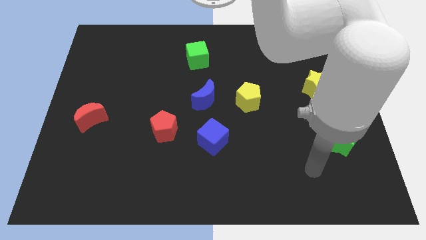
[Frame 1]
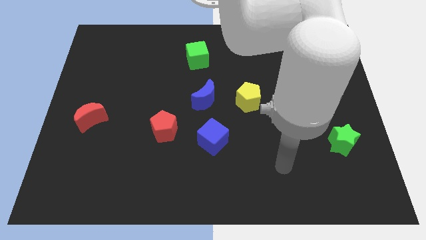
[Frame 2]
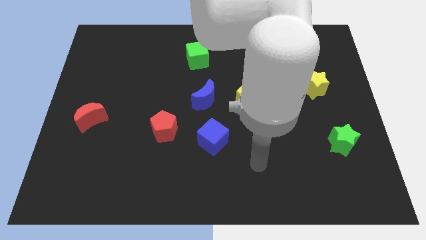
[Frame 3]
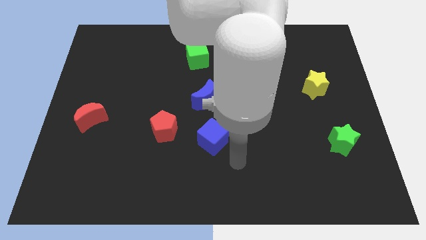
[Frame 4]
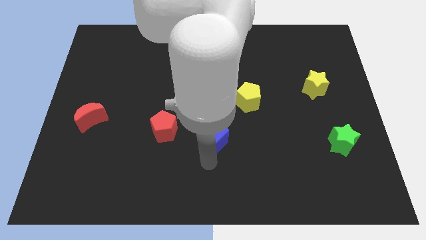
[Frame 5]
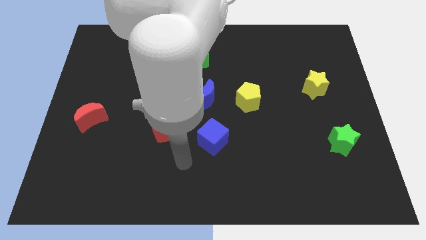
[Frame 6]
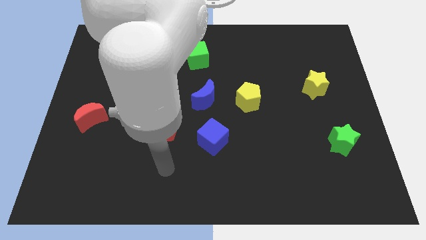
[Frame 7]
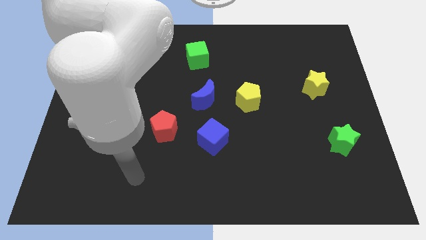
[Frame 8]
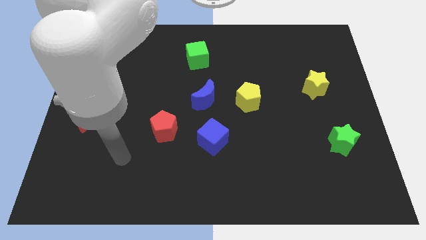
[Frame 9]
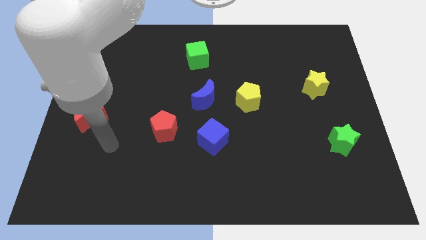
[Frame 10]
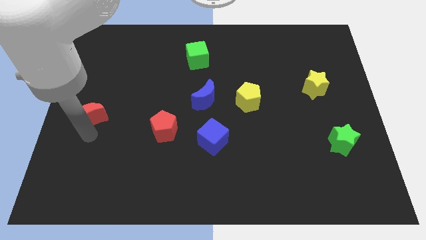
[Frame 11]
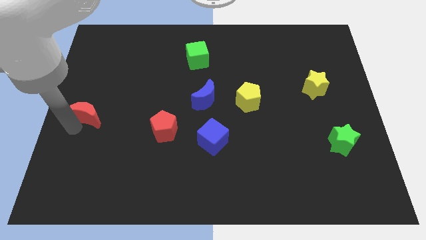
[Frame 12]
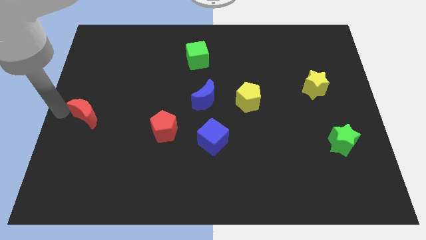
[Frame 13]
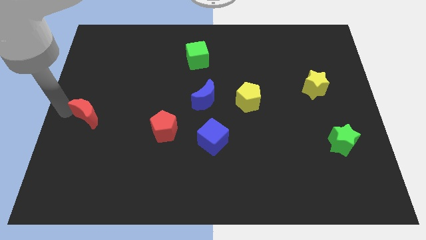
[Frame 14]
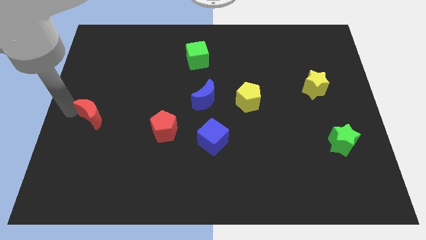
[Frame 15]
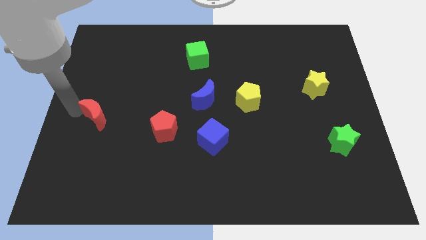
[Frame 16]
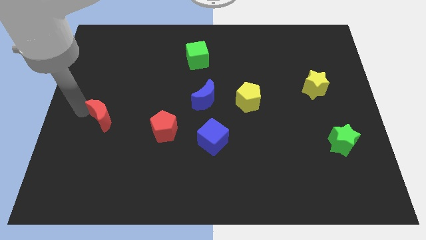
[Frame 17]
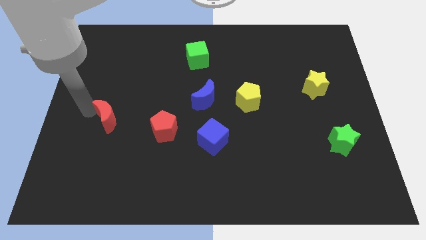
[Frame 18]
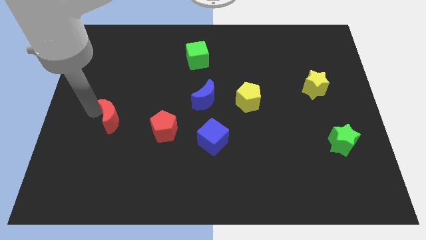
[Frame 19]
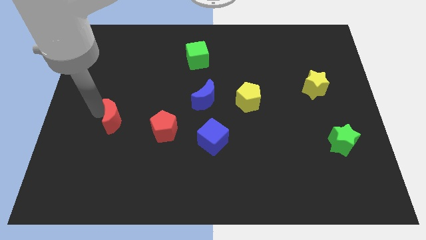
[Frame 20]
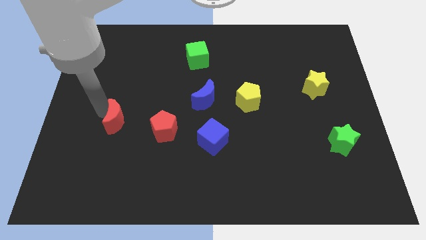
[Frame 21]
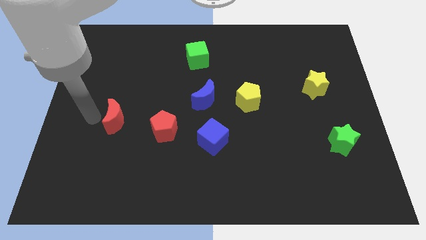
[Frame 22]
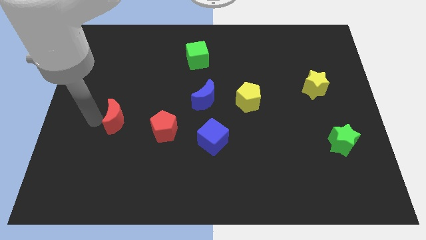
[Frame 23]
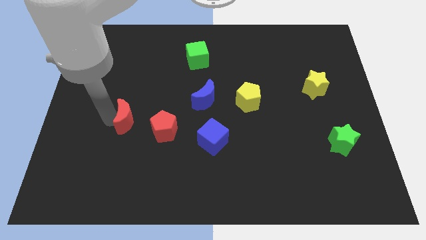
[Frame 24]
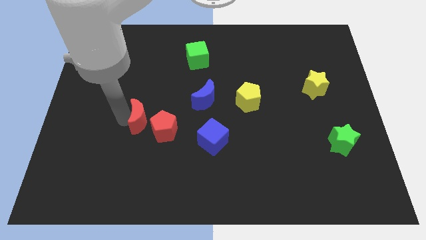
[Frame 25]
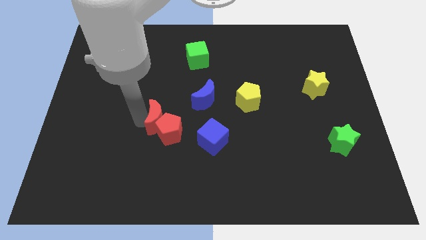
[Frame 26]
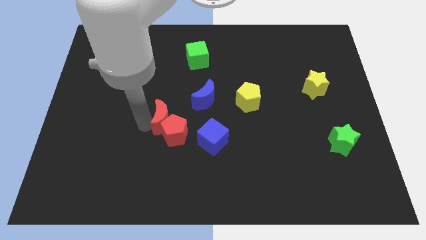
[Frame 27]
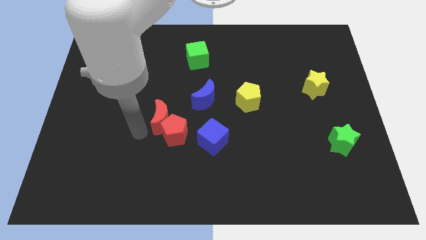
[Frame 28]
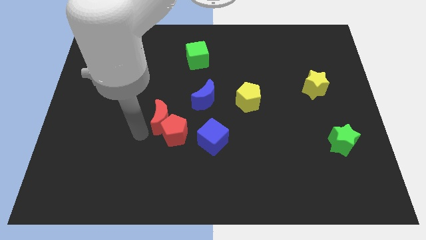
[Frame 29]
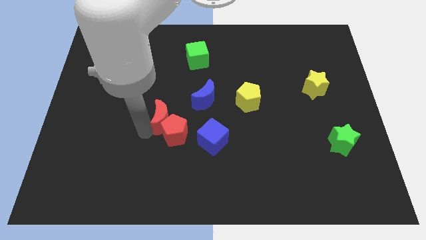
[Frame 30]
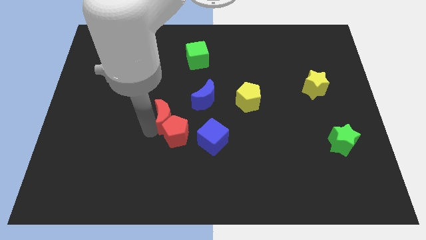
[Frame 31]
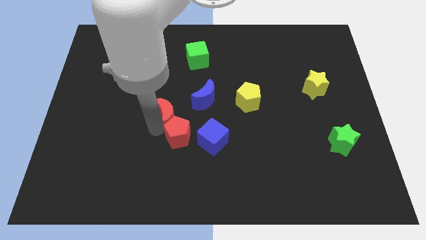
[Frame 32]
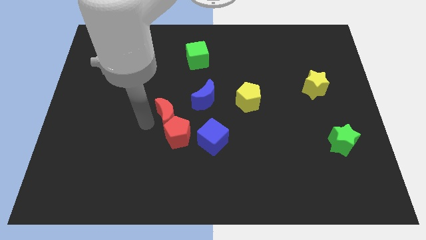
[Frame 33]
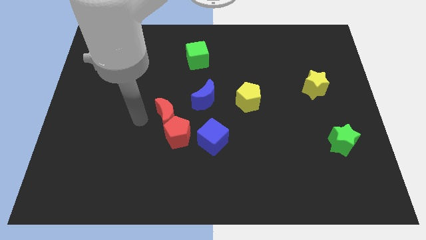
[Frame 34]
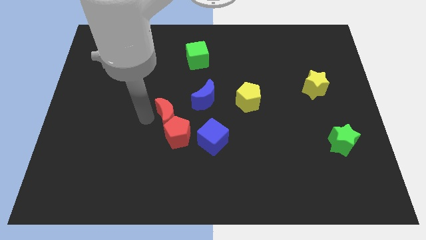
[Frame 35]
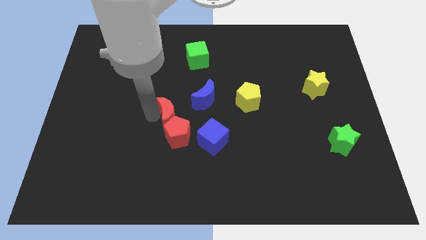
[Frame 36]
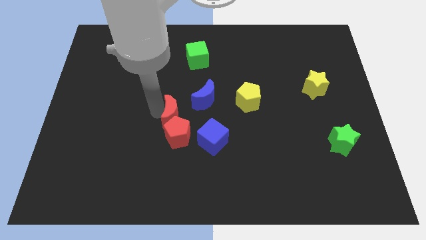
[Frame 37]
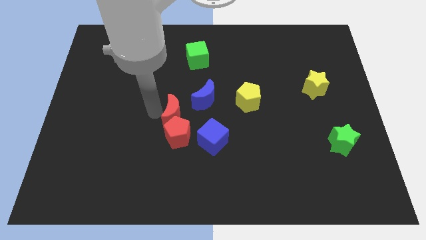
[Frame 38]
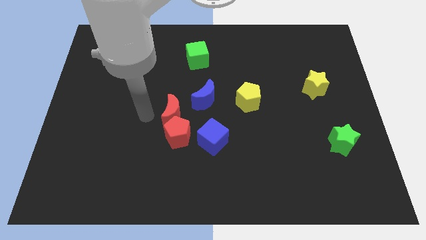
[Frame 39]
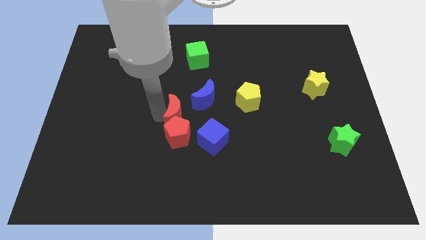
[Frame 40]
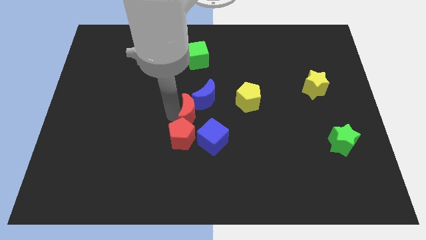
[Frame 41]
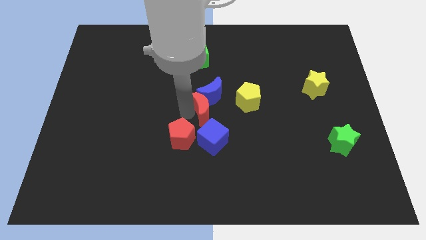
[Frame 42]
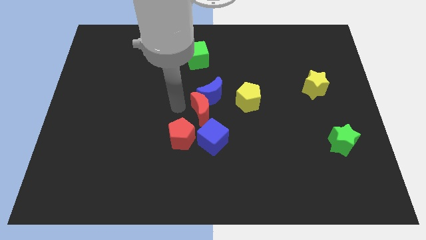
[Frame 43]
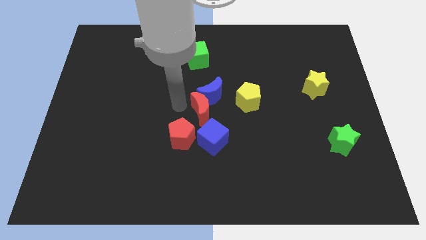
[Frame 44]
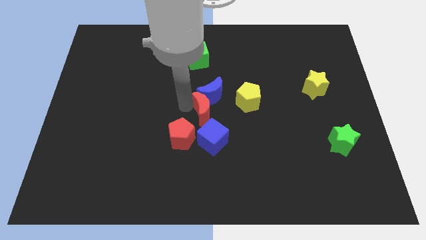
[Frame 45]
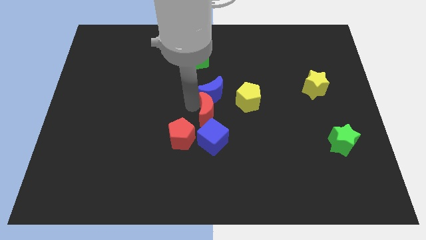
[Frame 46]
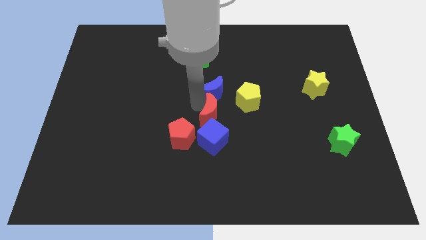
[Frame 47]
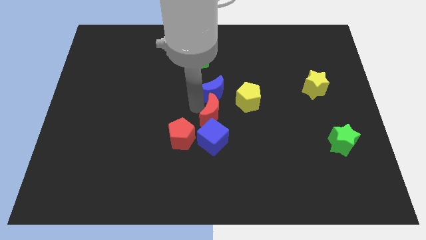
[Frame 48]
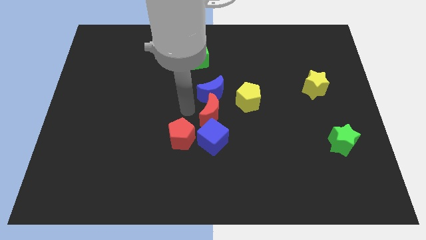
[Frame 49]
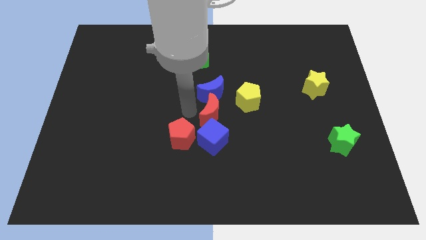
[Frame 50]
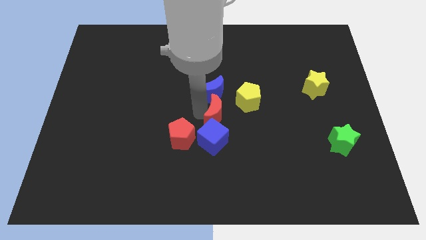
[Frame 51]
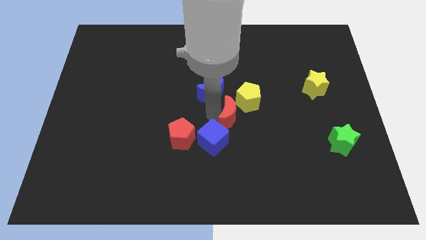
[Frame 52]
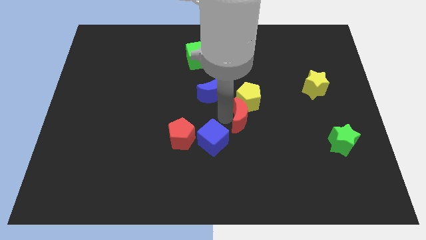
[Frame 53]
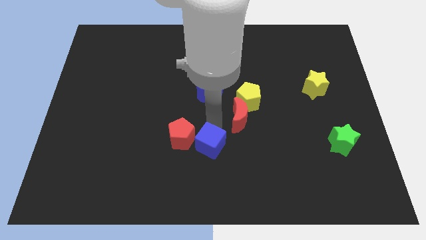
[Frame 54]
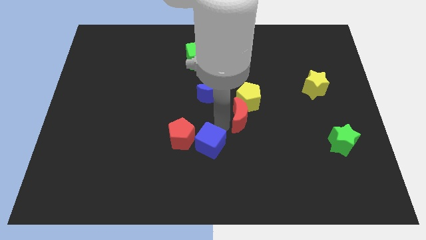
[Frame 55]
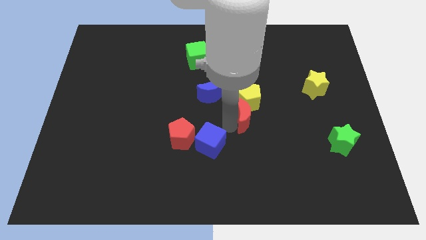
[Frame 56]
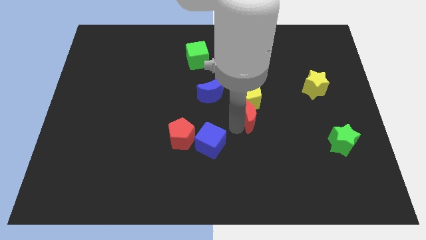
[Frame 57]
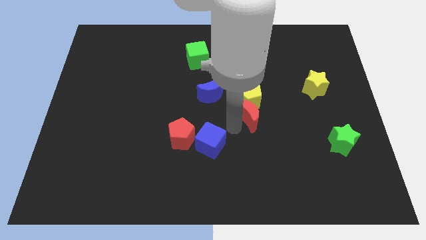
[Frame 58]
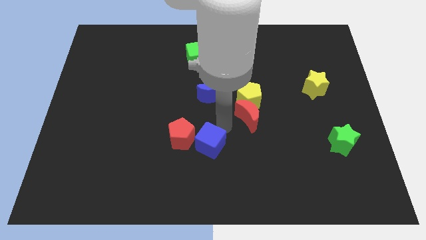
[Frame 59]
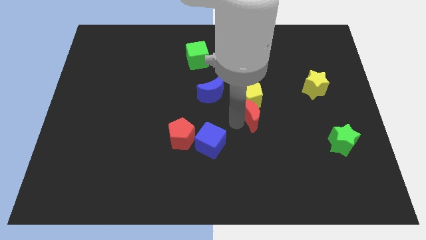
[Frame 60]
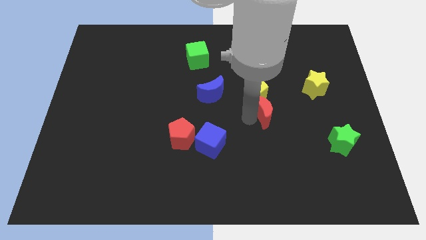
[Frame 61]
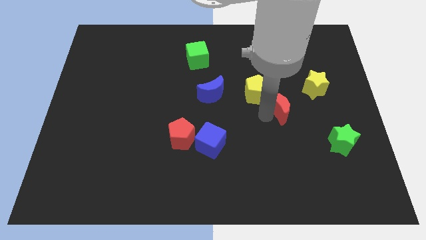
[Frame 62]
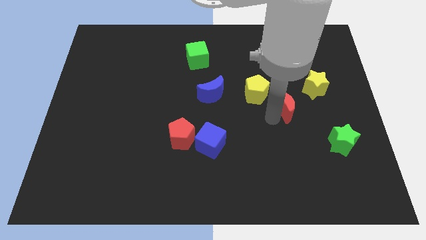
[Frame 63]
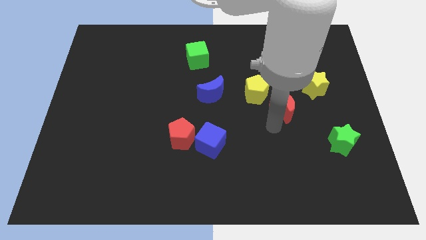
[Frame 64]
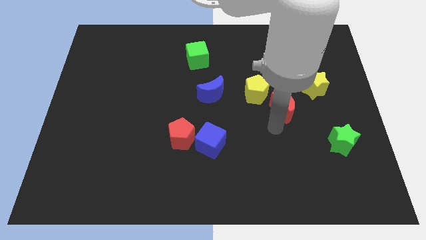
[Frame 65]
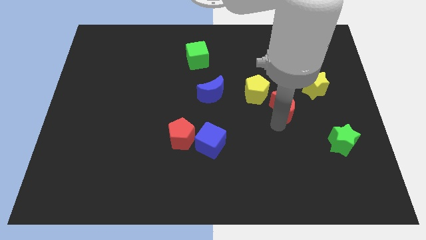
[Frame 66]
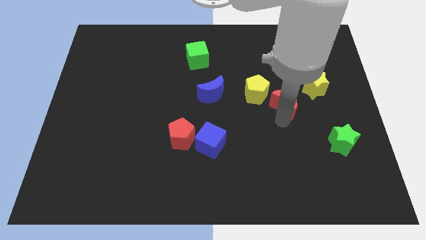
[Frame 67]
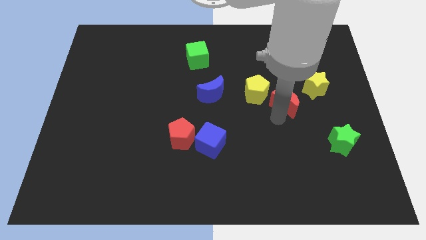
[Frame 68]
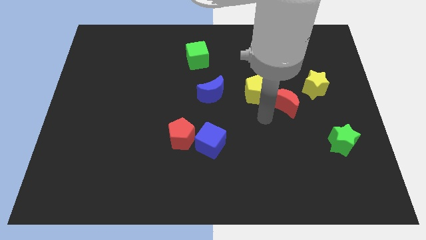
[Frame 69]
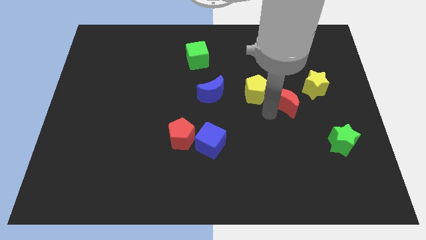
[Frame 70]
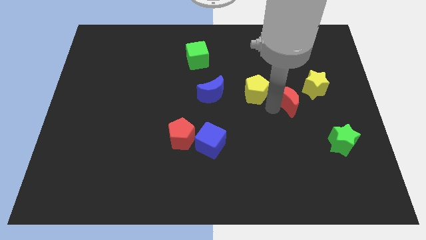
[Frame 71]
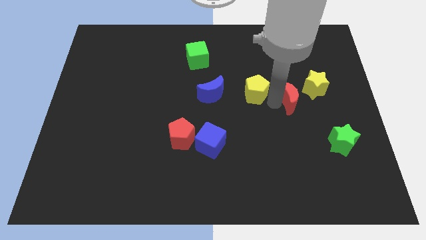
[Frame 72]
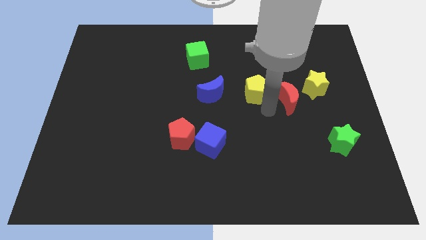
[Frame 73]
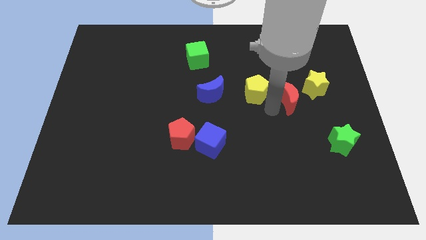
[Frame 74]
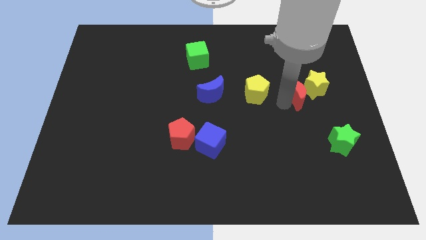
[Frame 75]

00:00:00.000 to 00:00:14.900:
push the red moon towards the yellow star
